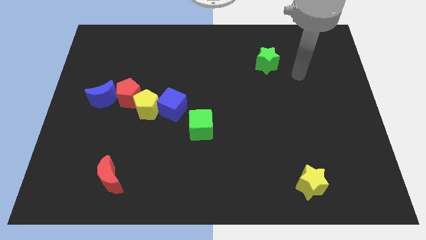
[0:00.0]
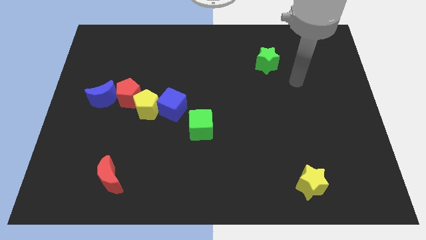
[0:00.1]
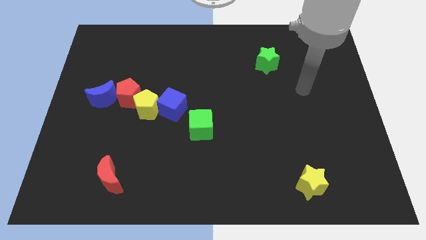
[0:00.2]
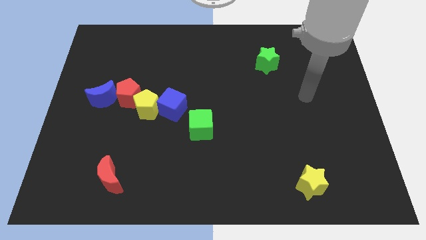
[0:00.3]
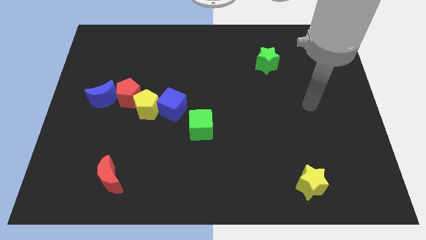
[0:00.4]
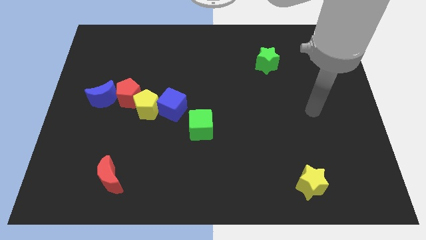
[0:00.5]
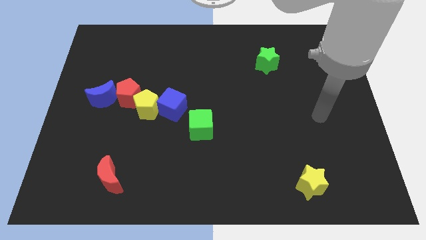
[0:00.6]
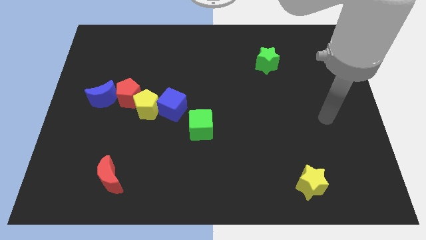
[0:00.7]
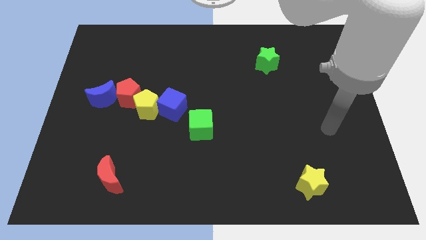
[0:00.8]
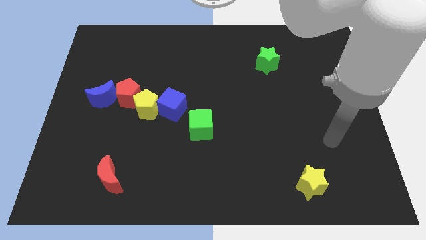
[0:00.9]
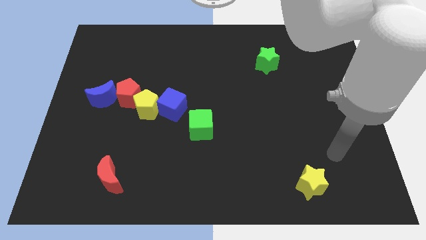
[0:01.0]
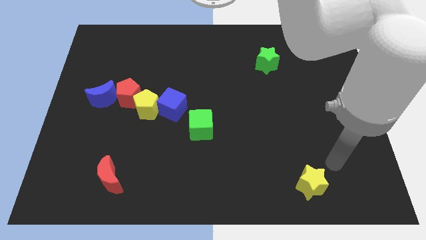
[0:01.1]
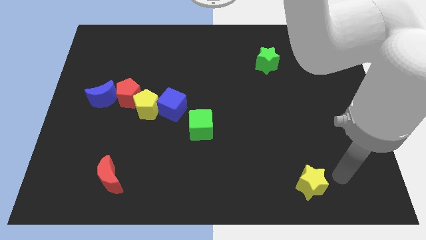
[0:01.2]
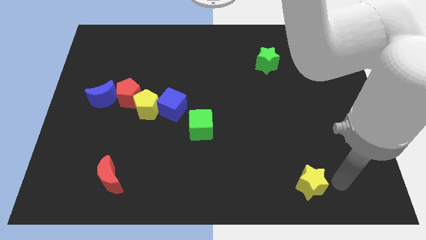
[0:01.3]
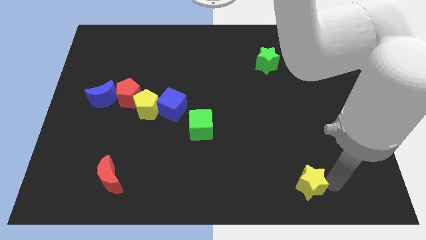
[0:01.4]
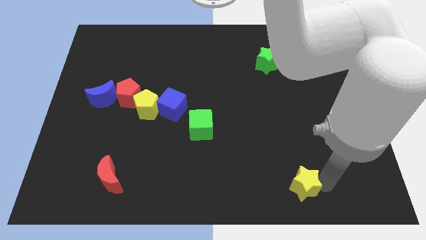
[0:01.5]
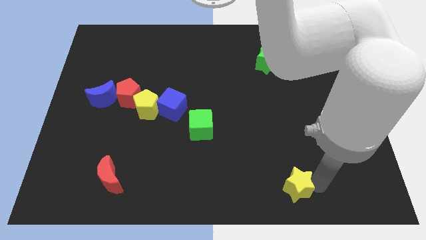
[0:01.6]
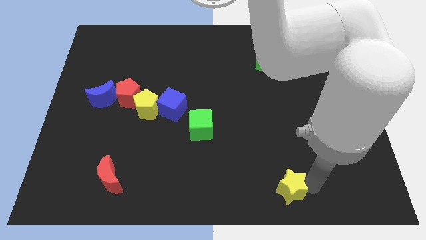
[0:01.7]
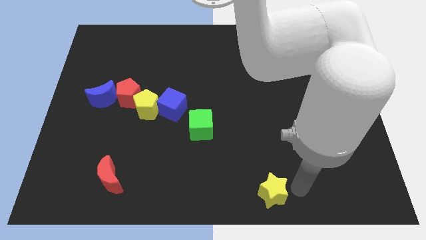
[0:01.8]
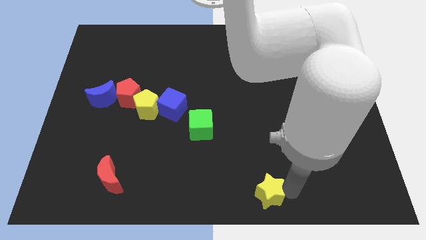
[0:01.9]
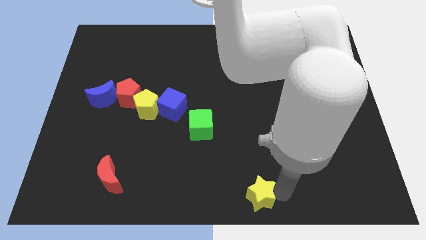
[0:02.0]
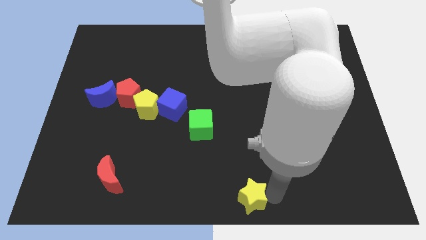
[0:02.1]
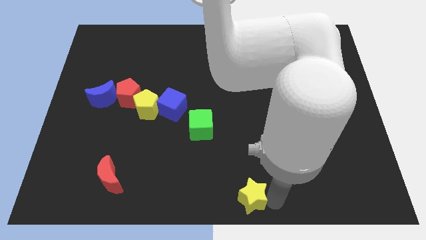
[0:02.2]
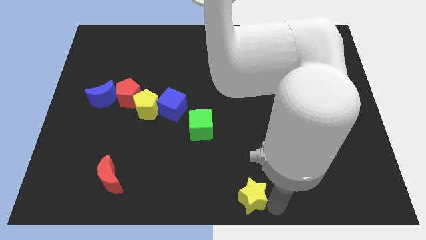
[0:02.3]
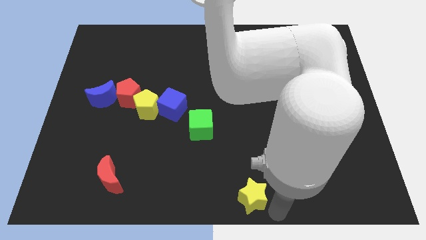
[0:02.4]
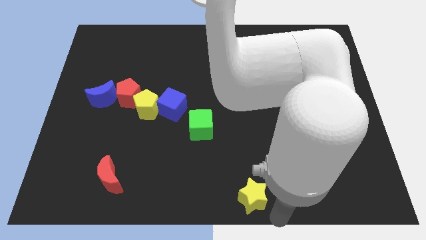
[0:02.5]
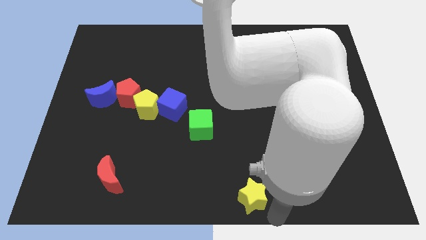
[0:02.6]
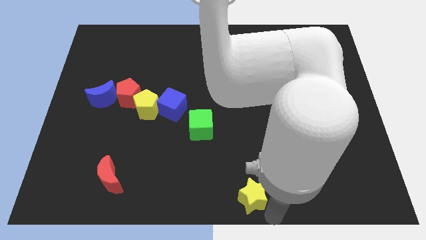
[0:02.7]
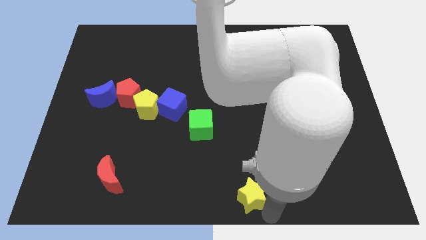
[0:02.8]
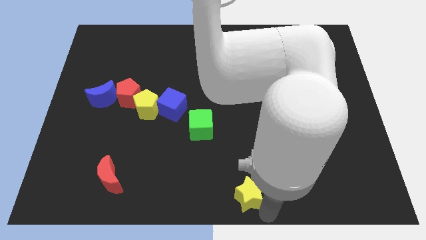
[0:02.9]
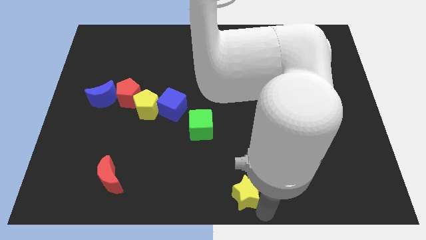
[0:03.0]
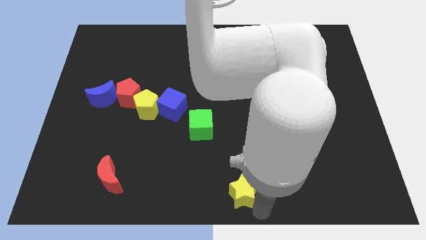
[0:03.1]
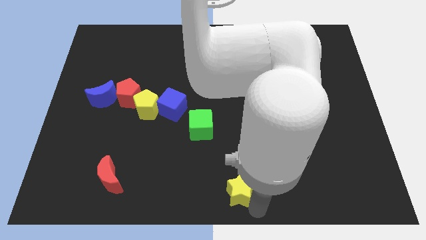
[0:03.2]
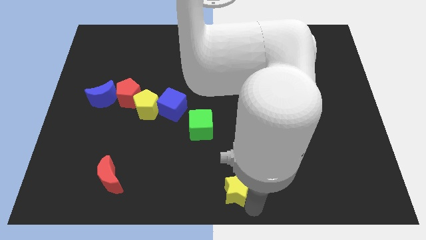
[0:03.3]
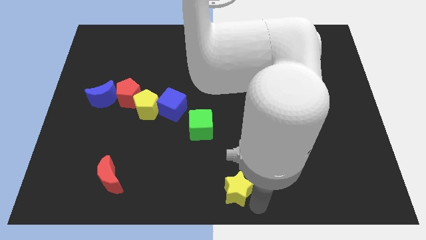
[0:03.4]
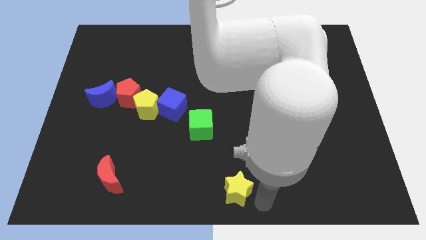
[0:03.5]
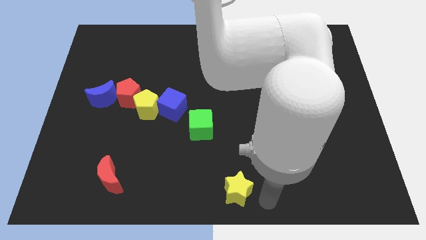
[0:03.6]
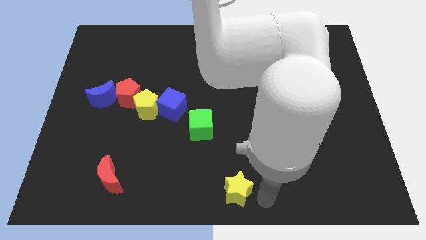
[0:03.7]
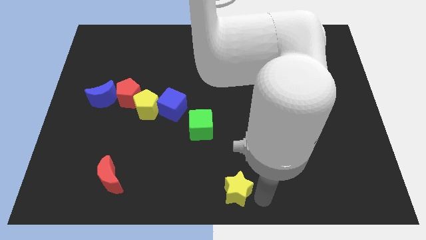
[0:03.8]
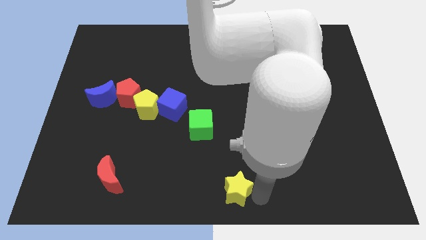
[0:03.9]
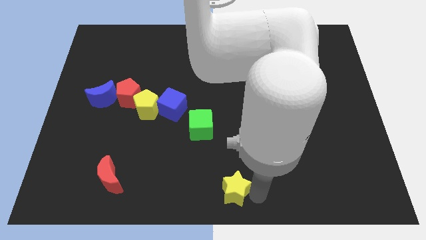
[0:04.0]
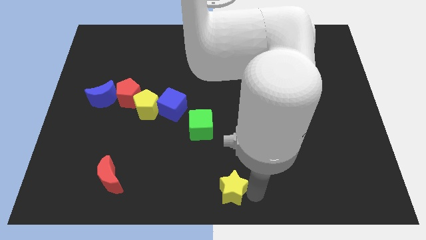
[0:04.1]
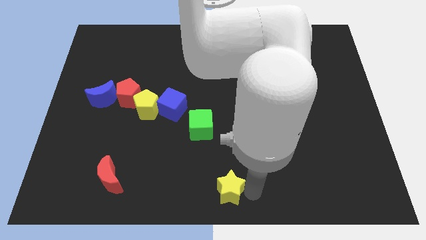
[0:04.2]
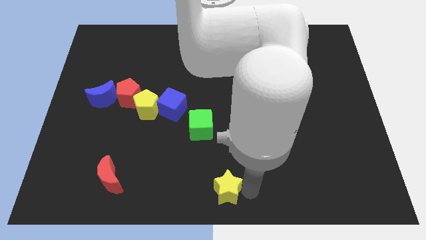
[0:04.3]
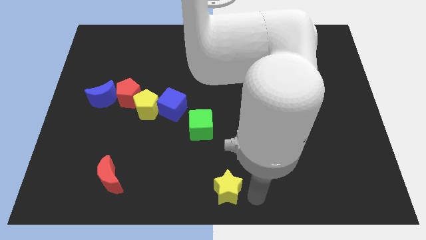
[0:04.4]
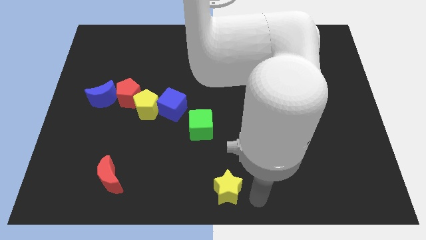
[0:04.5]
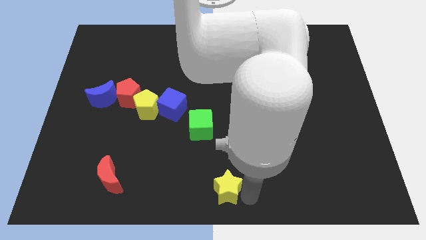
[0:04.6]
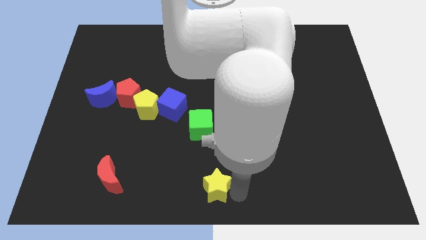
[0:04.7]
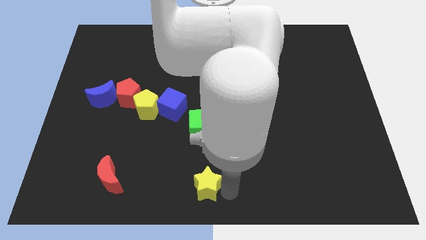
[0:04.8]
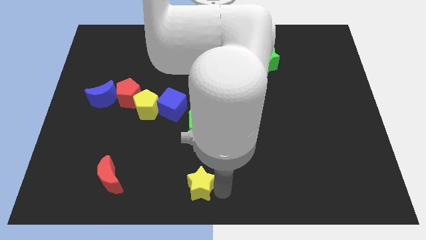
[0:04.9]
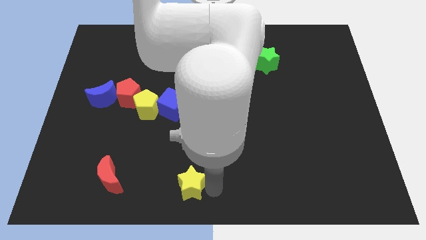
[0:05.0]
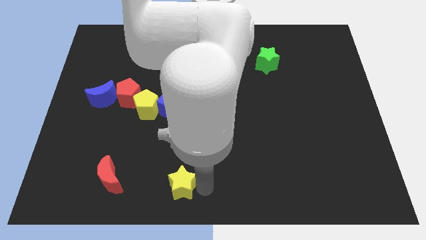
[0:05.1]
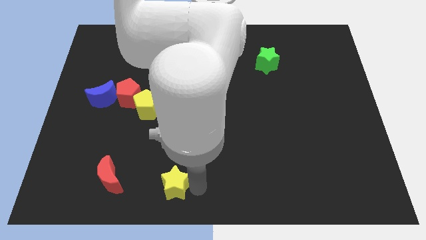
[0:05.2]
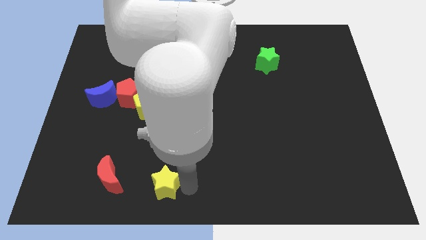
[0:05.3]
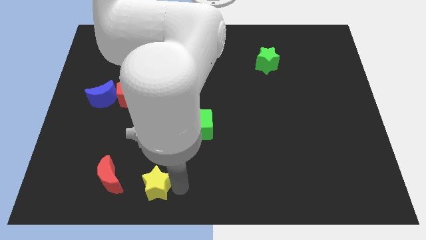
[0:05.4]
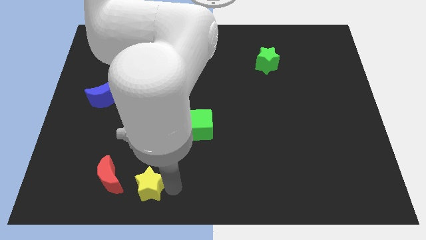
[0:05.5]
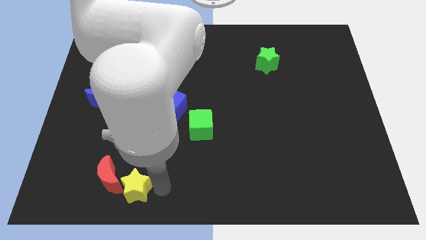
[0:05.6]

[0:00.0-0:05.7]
move the yellow star to the red moon

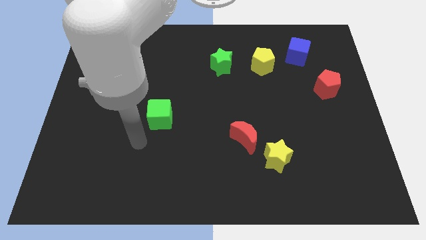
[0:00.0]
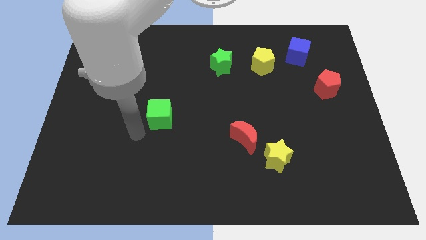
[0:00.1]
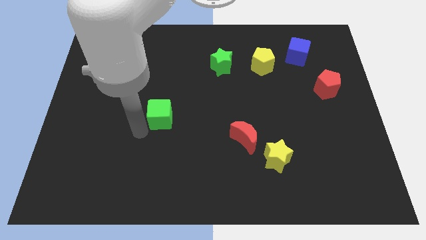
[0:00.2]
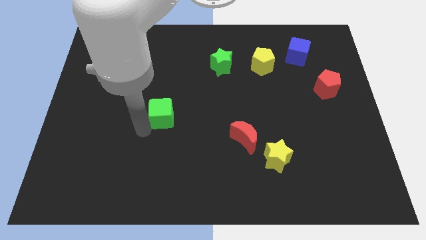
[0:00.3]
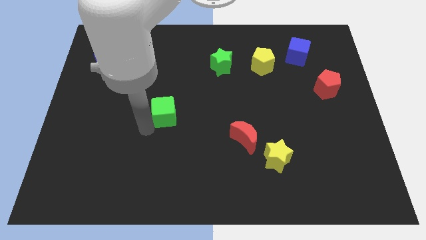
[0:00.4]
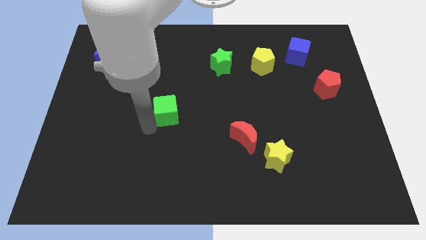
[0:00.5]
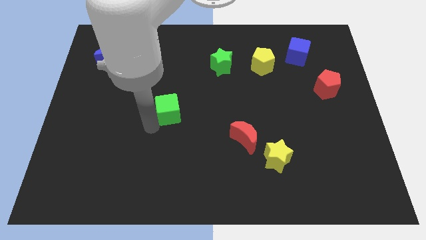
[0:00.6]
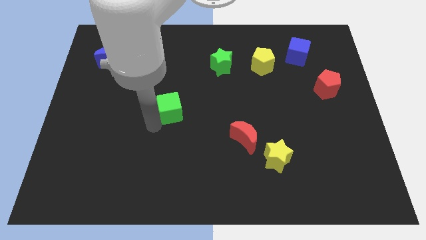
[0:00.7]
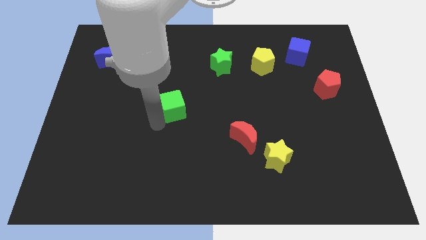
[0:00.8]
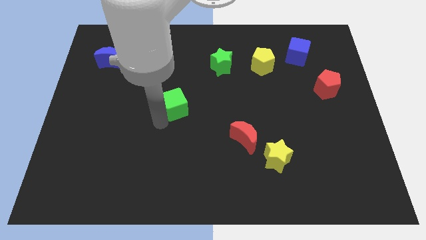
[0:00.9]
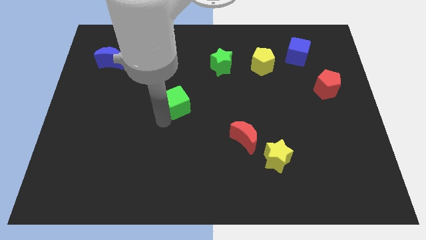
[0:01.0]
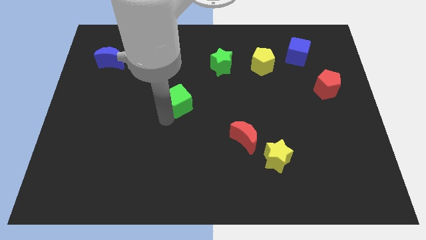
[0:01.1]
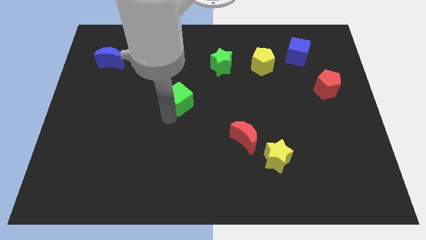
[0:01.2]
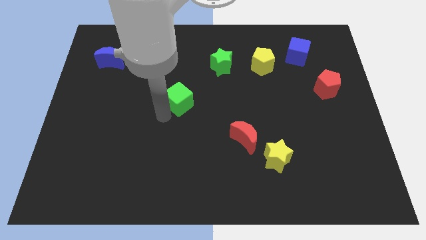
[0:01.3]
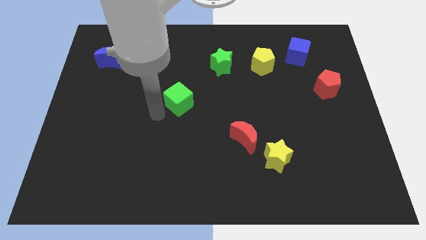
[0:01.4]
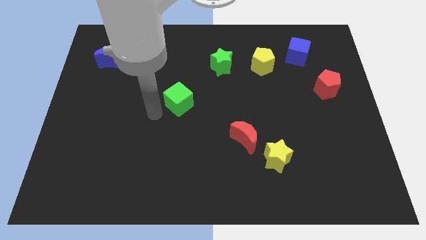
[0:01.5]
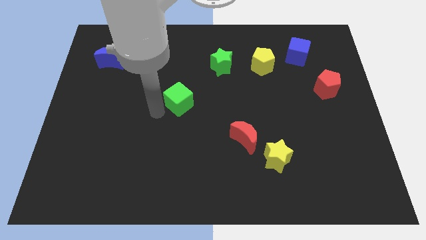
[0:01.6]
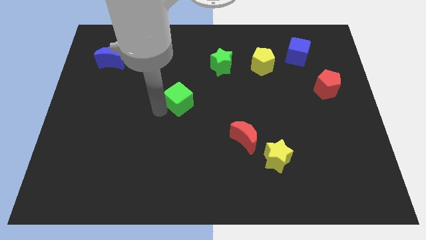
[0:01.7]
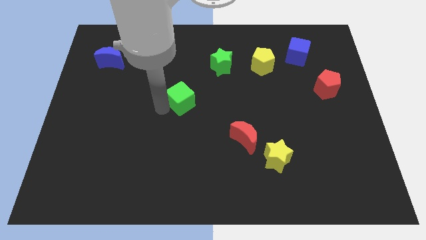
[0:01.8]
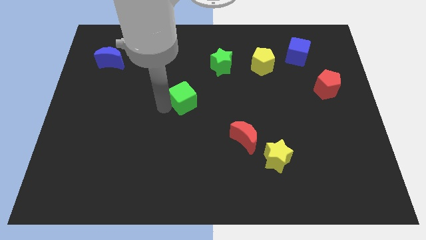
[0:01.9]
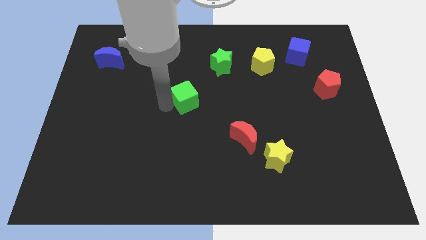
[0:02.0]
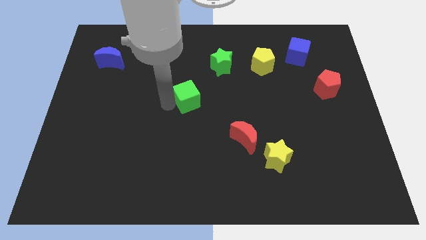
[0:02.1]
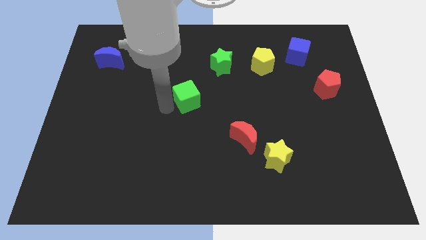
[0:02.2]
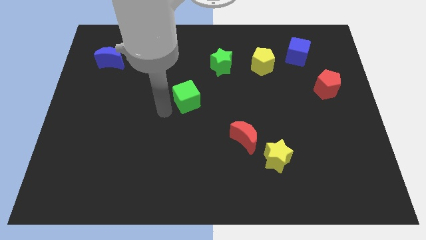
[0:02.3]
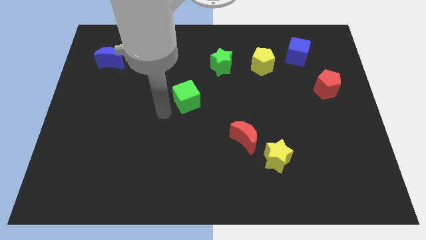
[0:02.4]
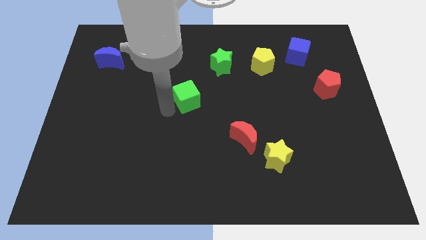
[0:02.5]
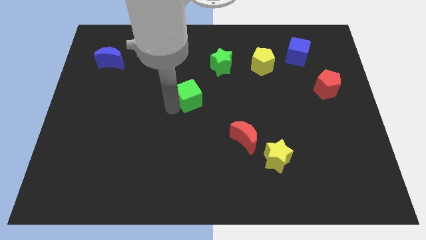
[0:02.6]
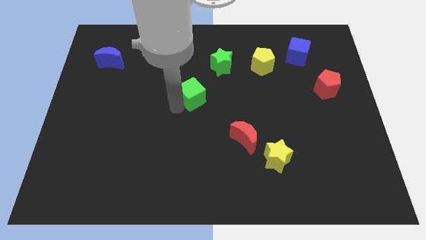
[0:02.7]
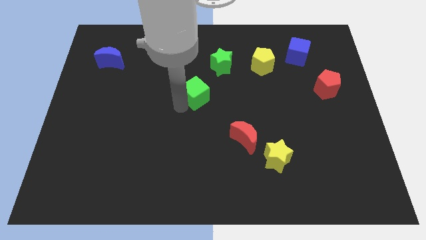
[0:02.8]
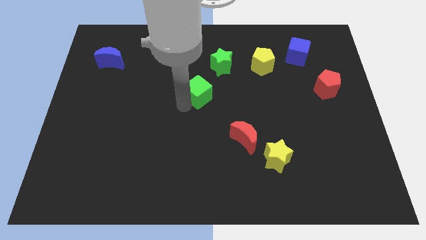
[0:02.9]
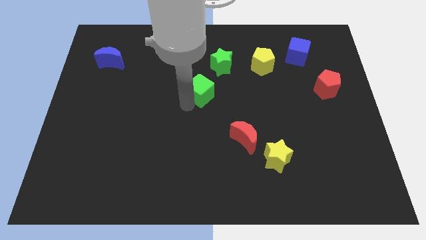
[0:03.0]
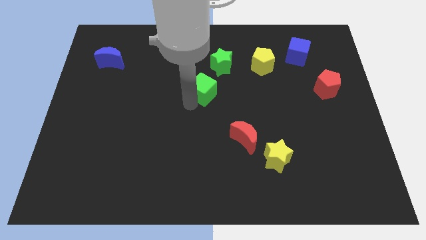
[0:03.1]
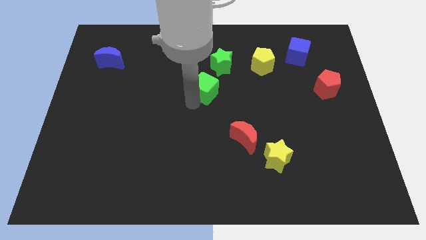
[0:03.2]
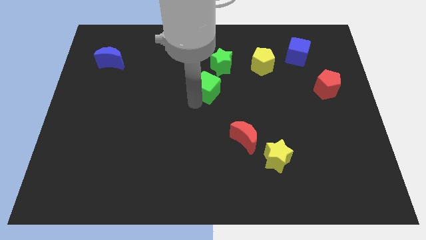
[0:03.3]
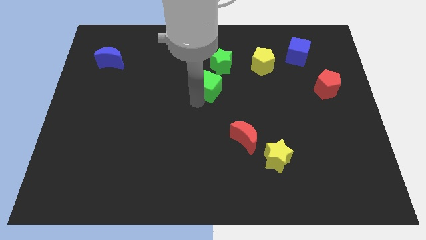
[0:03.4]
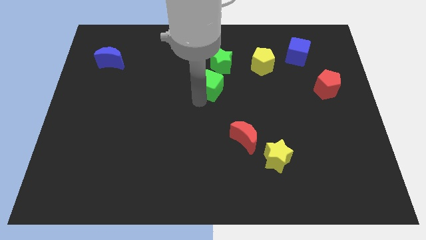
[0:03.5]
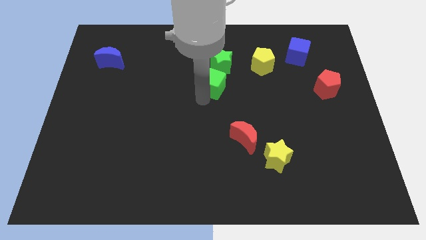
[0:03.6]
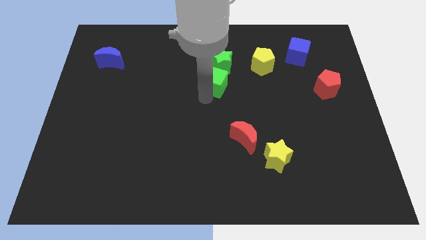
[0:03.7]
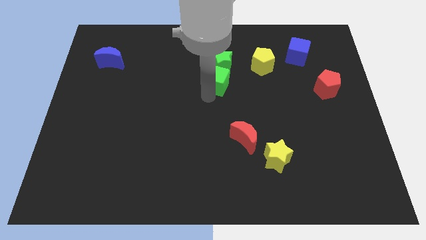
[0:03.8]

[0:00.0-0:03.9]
move the green cube close to the green star
